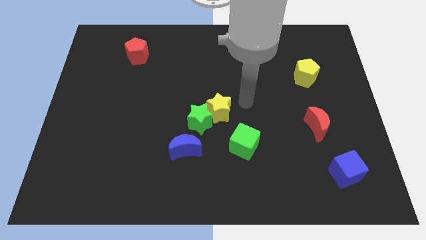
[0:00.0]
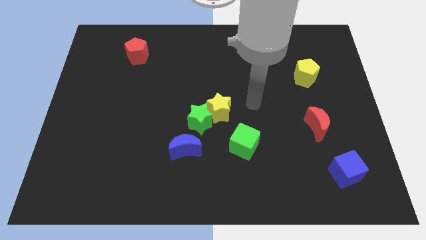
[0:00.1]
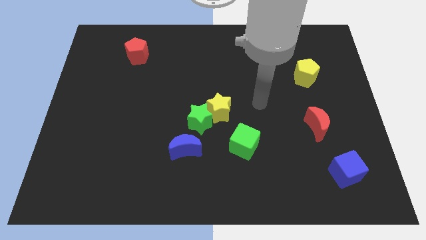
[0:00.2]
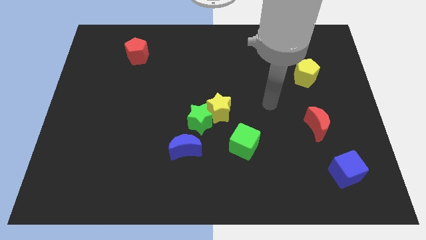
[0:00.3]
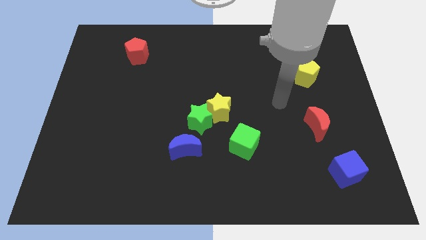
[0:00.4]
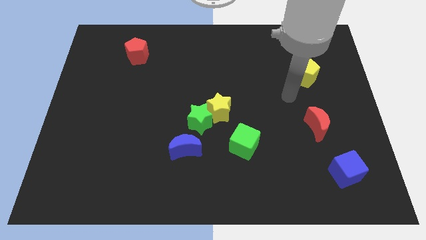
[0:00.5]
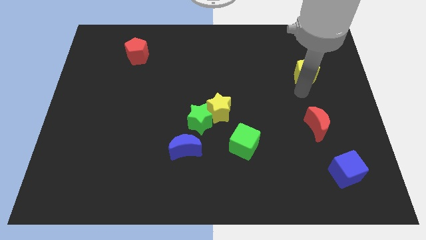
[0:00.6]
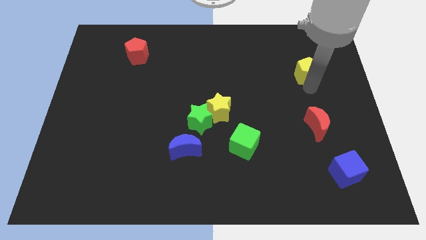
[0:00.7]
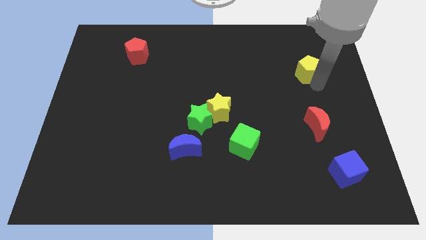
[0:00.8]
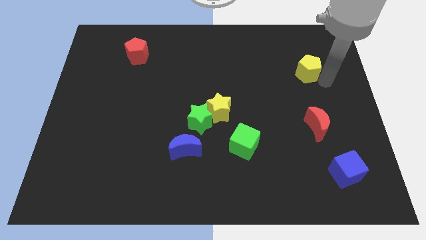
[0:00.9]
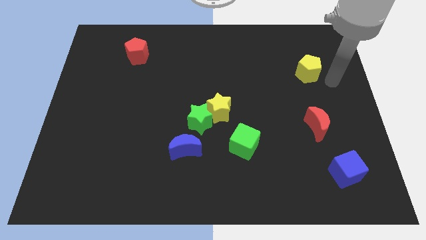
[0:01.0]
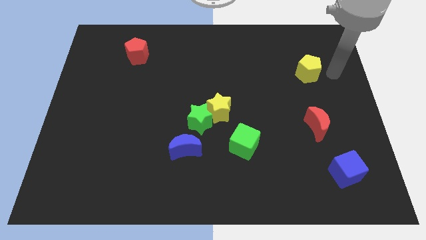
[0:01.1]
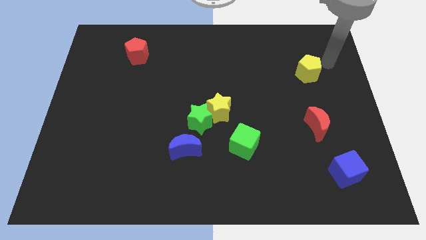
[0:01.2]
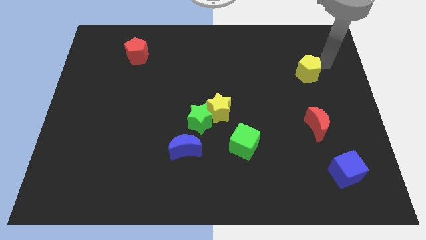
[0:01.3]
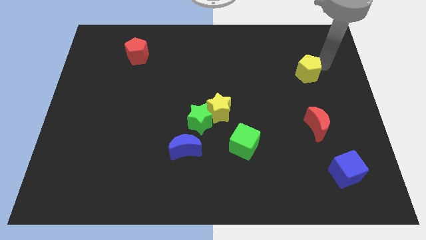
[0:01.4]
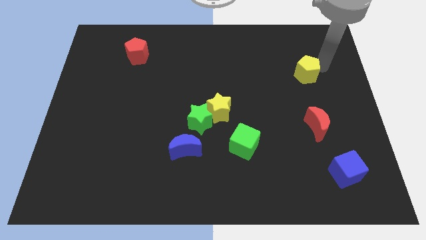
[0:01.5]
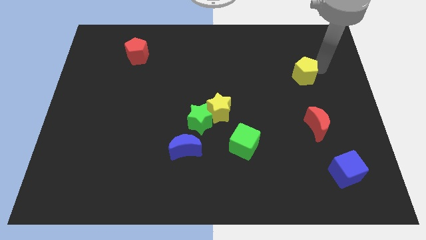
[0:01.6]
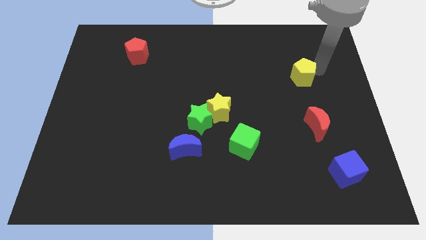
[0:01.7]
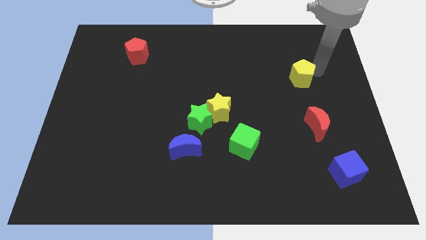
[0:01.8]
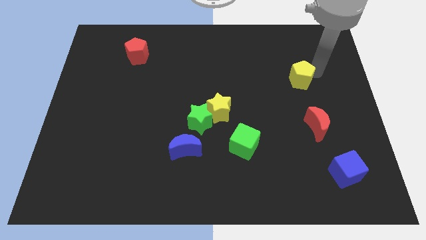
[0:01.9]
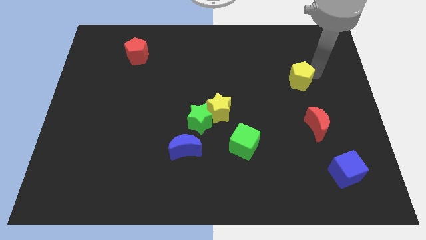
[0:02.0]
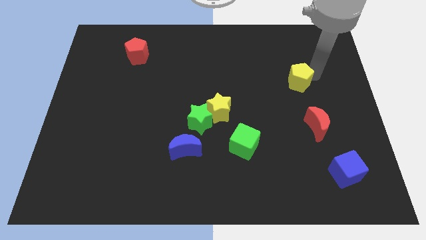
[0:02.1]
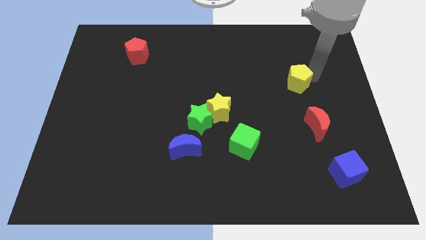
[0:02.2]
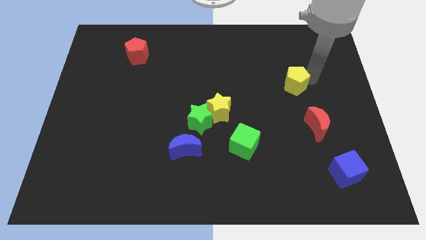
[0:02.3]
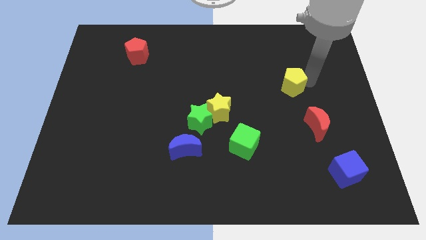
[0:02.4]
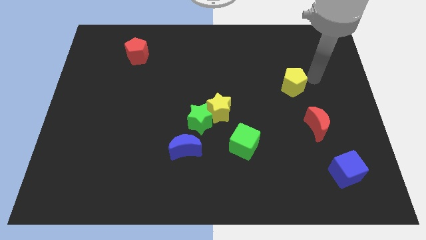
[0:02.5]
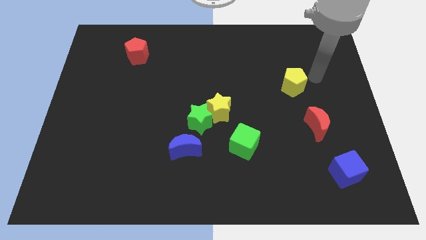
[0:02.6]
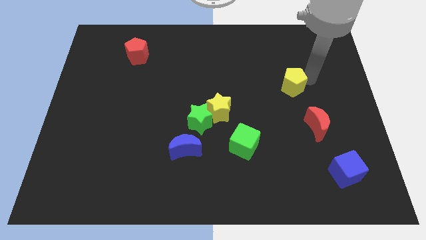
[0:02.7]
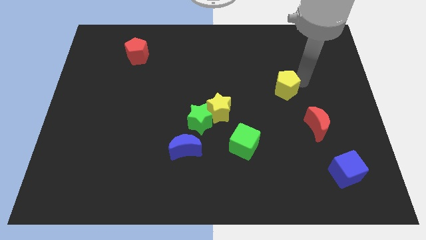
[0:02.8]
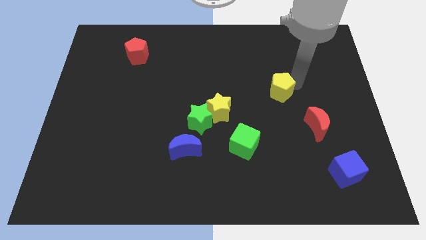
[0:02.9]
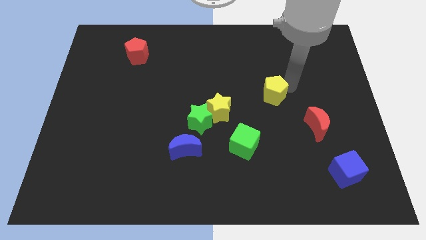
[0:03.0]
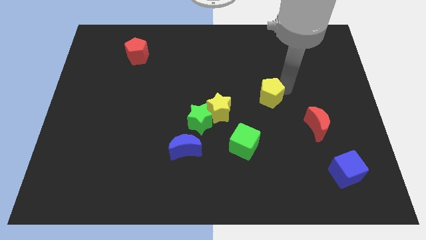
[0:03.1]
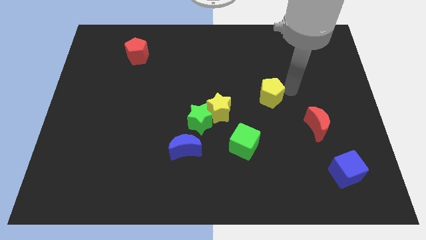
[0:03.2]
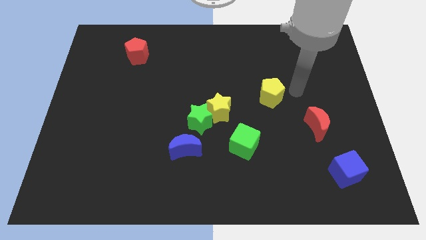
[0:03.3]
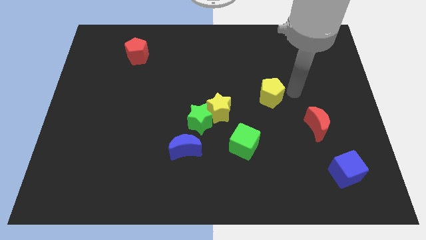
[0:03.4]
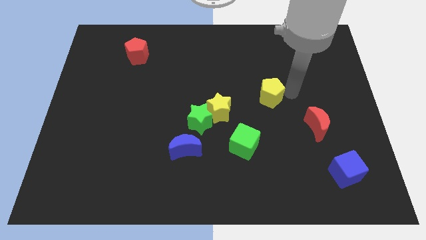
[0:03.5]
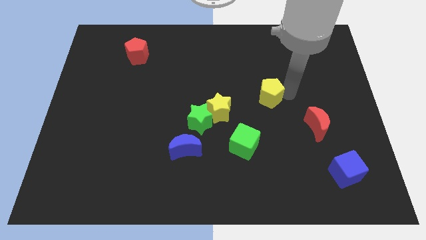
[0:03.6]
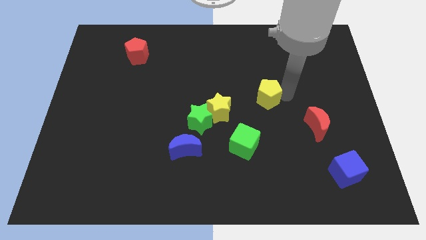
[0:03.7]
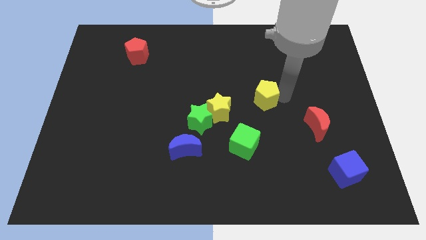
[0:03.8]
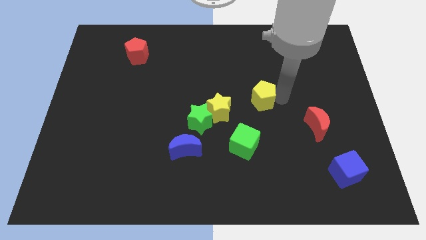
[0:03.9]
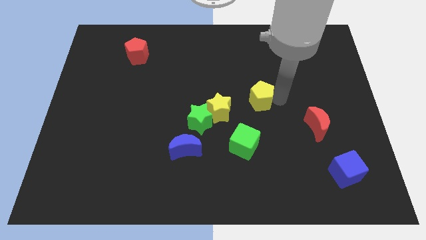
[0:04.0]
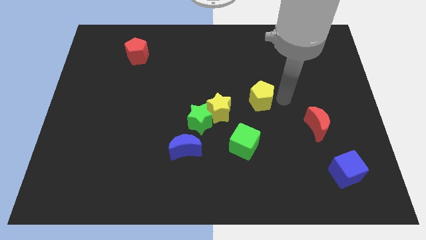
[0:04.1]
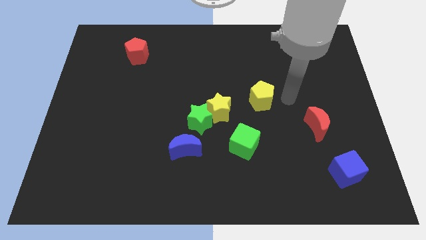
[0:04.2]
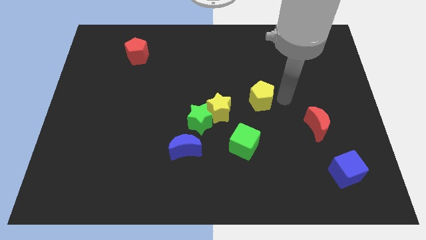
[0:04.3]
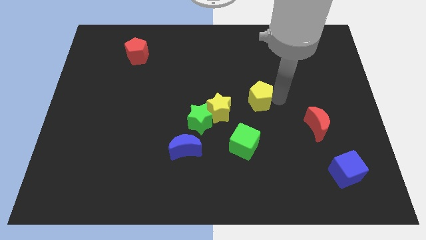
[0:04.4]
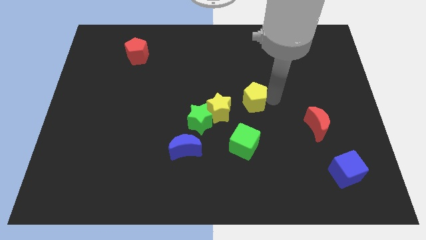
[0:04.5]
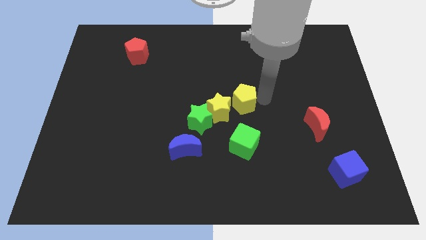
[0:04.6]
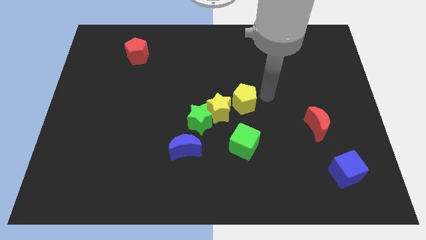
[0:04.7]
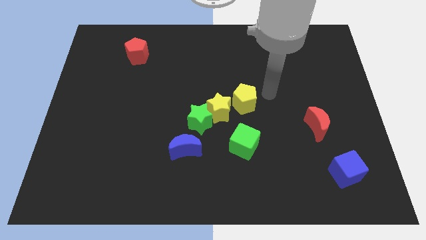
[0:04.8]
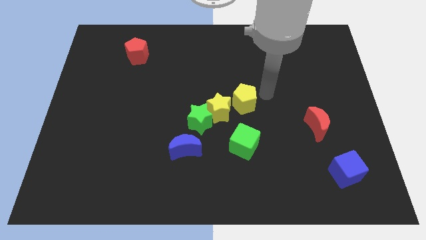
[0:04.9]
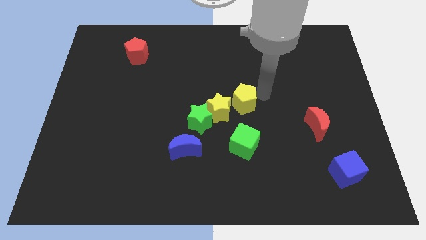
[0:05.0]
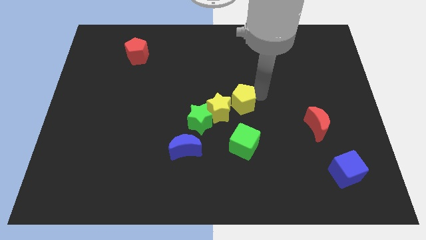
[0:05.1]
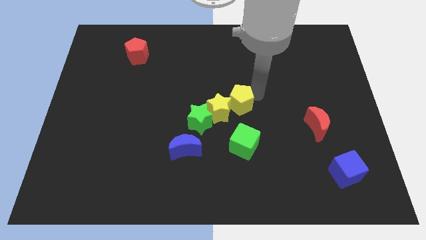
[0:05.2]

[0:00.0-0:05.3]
push the yellow pentagon towards the yellow star

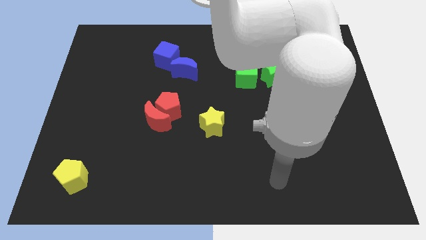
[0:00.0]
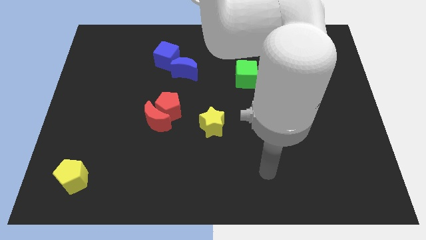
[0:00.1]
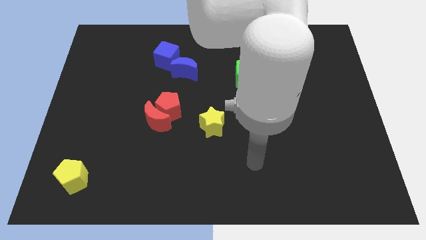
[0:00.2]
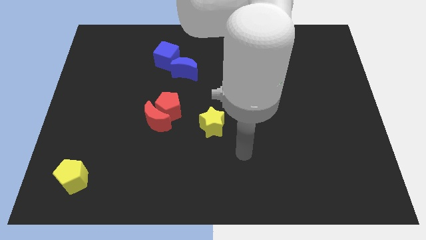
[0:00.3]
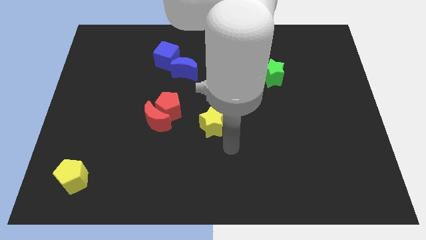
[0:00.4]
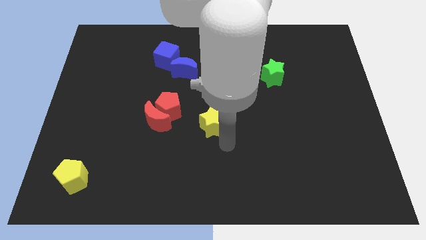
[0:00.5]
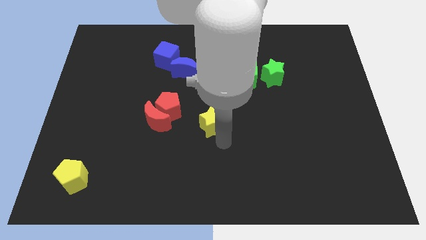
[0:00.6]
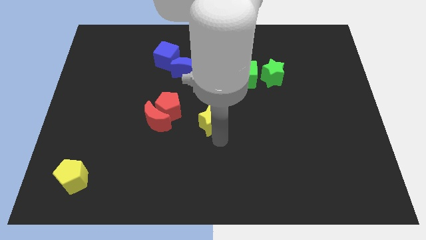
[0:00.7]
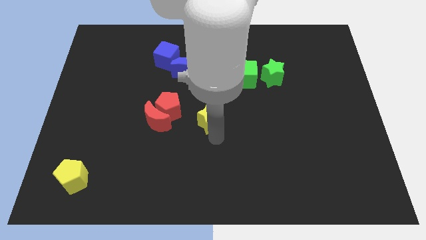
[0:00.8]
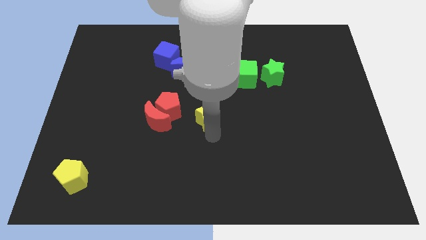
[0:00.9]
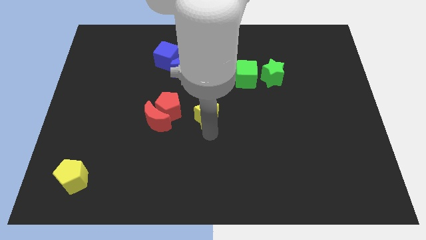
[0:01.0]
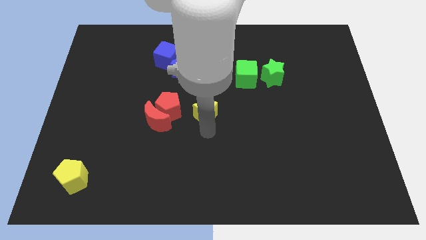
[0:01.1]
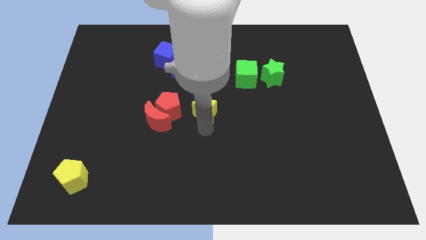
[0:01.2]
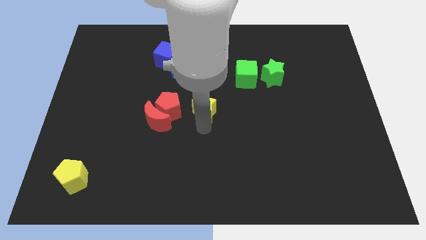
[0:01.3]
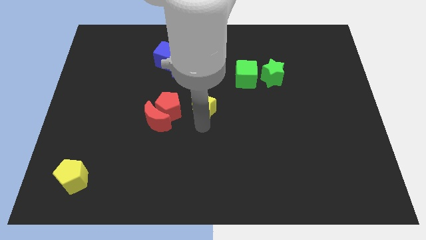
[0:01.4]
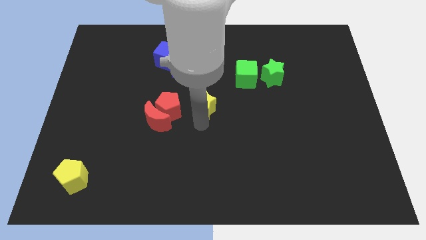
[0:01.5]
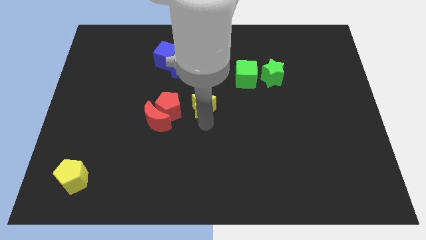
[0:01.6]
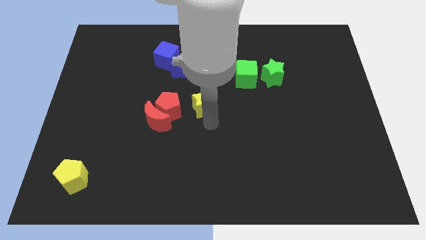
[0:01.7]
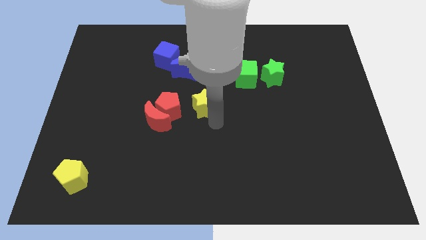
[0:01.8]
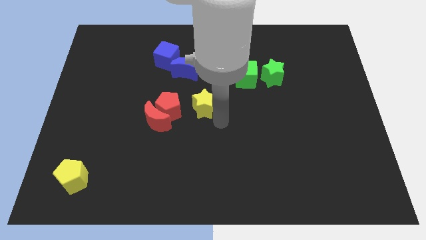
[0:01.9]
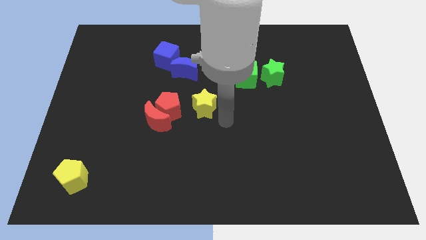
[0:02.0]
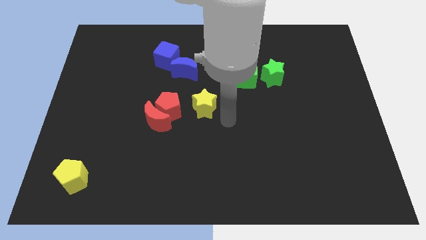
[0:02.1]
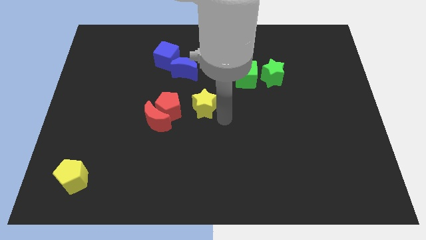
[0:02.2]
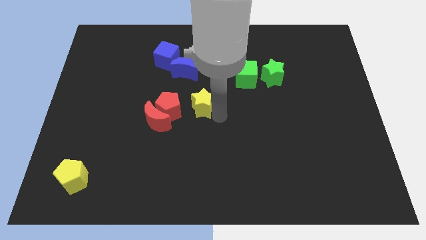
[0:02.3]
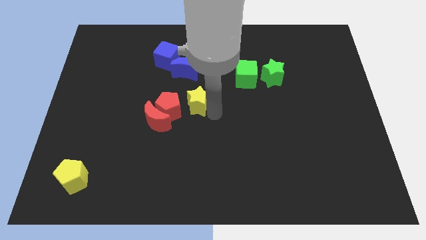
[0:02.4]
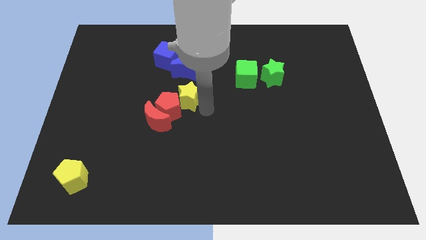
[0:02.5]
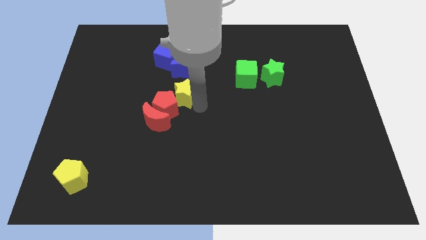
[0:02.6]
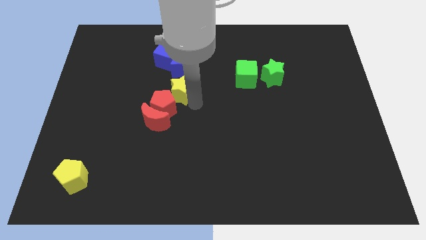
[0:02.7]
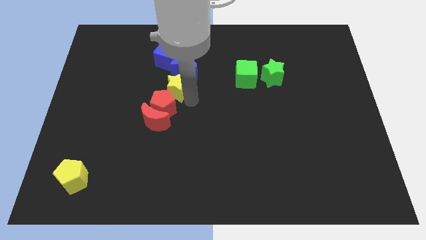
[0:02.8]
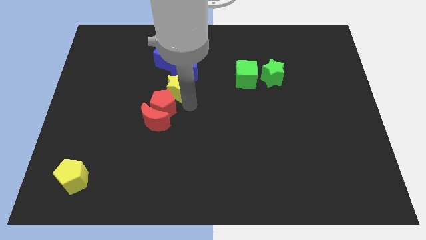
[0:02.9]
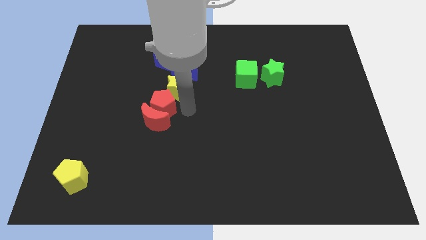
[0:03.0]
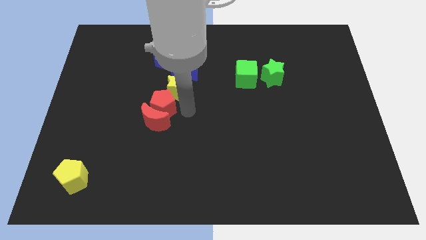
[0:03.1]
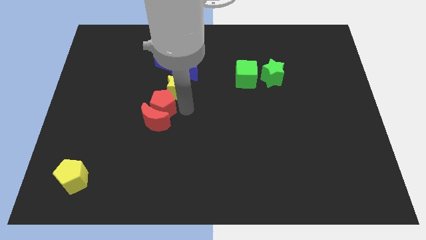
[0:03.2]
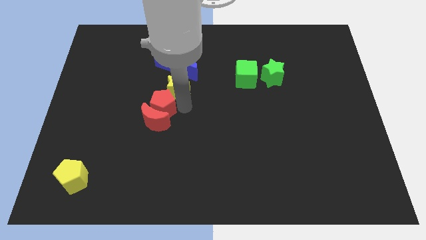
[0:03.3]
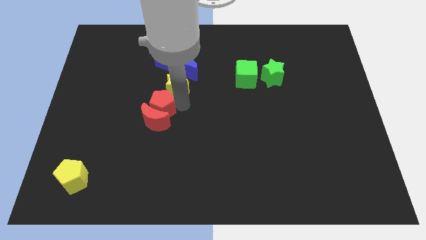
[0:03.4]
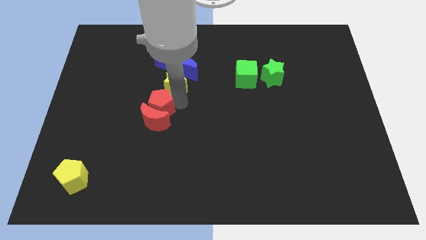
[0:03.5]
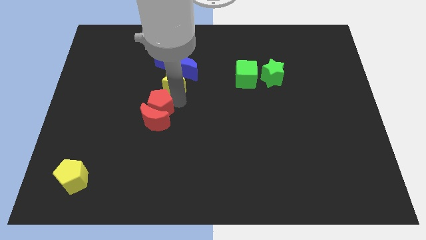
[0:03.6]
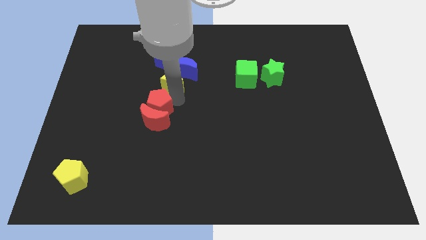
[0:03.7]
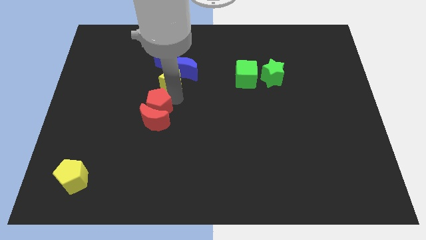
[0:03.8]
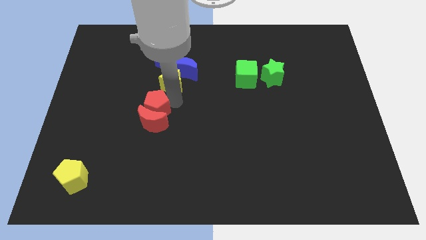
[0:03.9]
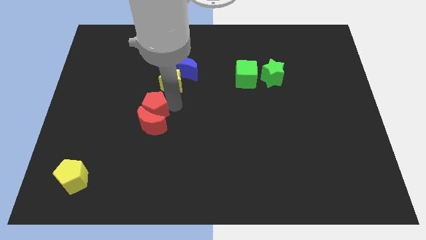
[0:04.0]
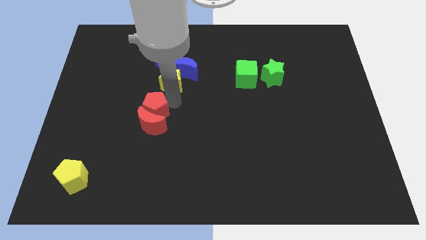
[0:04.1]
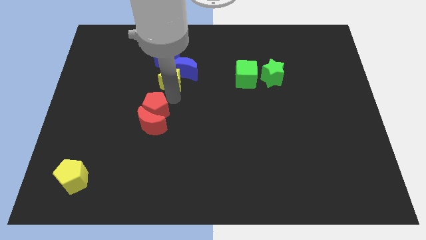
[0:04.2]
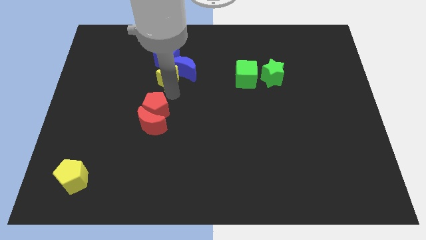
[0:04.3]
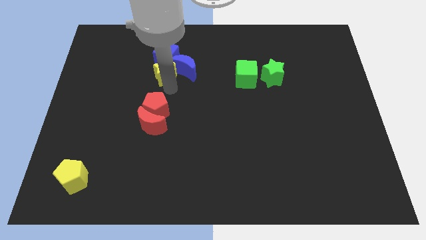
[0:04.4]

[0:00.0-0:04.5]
push the yellow star to the blue cube
